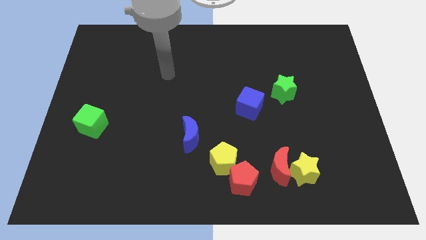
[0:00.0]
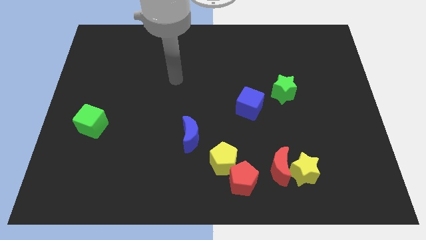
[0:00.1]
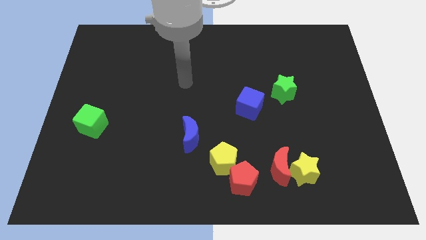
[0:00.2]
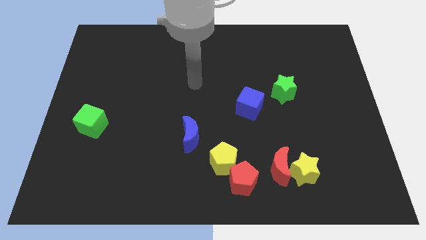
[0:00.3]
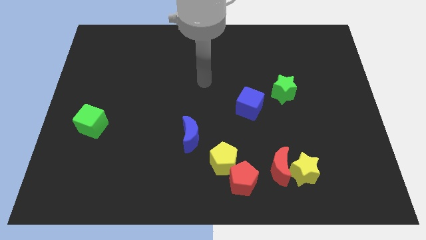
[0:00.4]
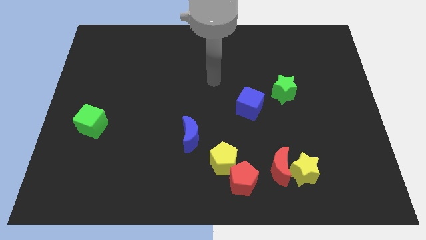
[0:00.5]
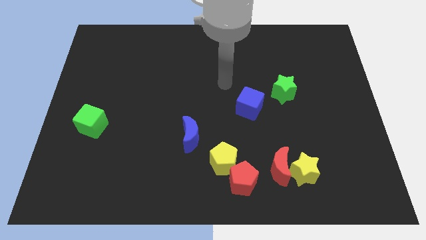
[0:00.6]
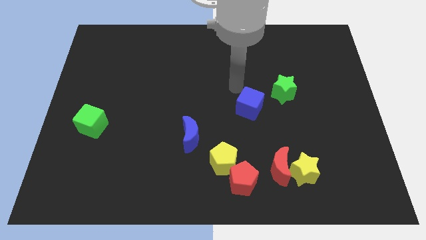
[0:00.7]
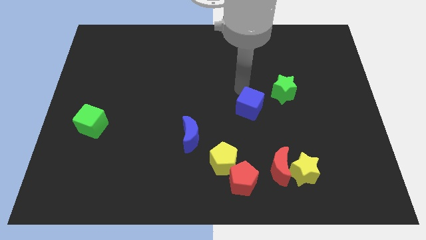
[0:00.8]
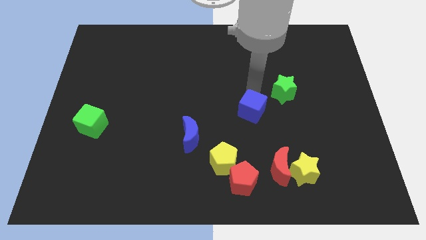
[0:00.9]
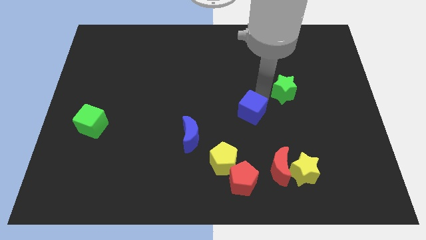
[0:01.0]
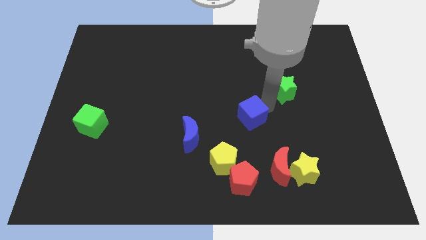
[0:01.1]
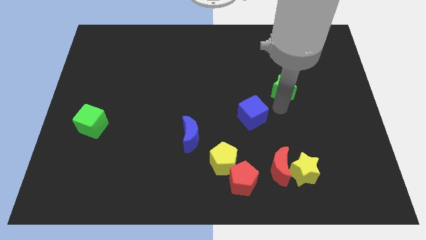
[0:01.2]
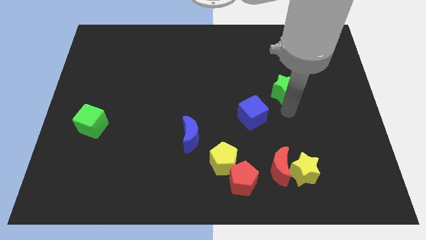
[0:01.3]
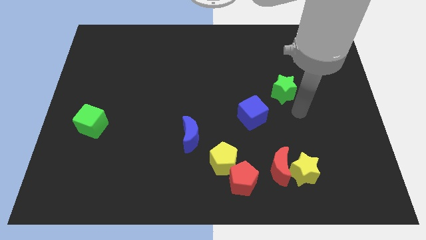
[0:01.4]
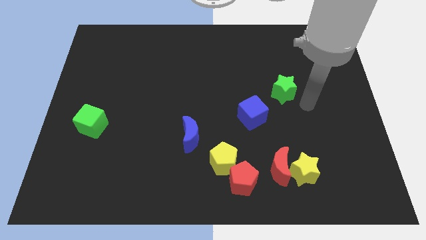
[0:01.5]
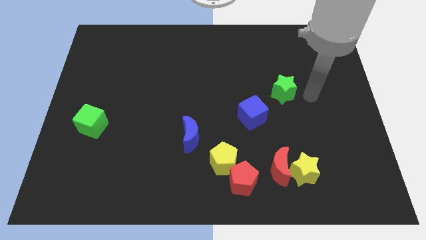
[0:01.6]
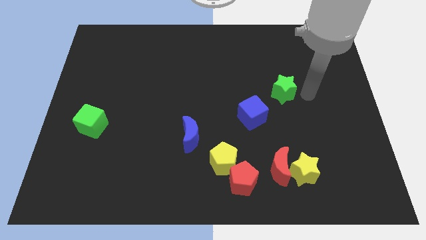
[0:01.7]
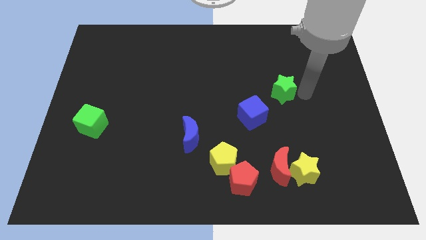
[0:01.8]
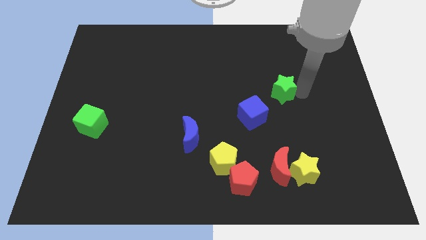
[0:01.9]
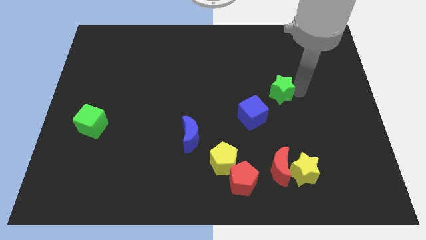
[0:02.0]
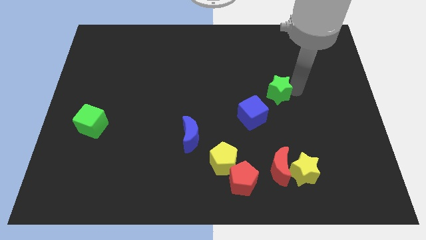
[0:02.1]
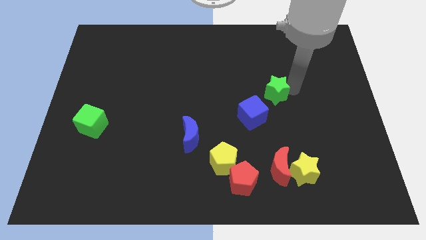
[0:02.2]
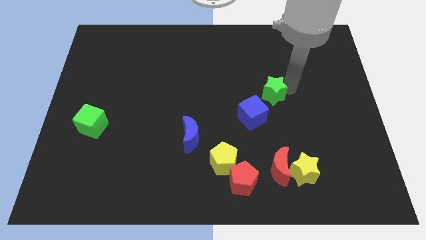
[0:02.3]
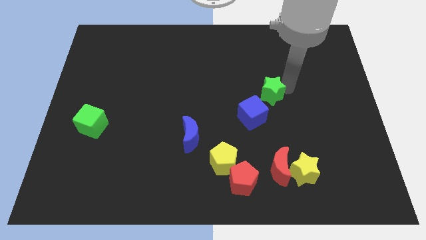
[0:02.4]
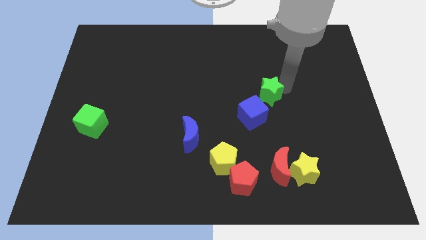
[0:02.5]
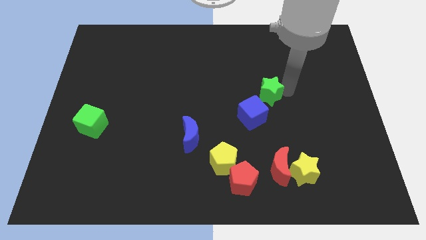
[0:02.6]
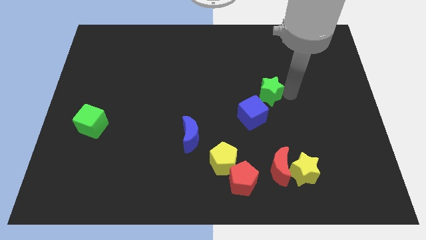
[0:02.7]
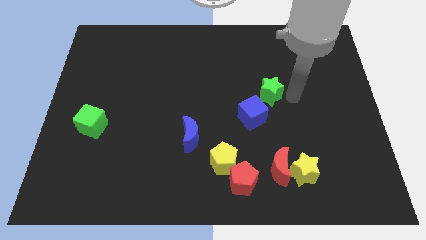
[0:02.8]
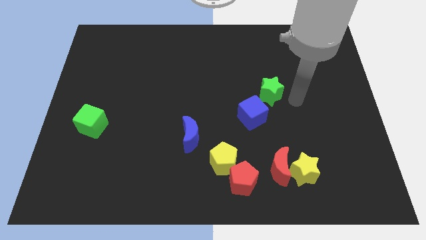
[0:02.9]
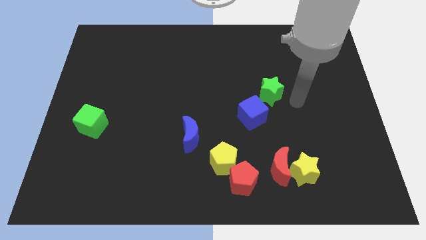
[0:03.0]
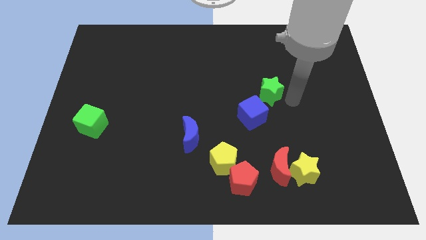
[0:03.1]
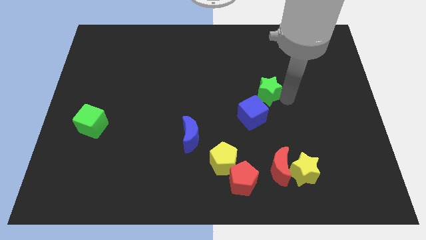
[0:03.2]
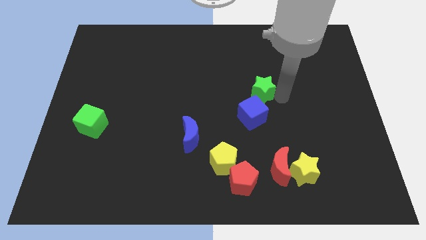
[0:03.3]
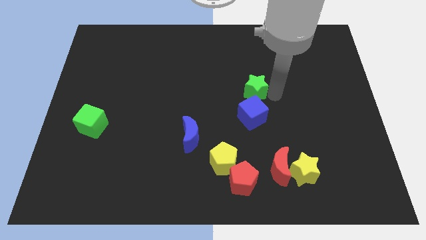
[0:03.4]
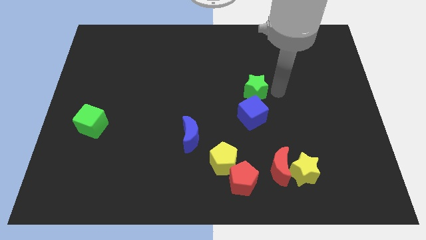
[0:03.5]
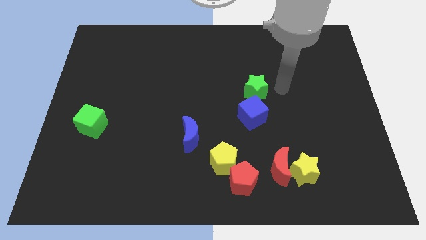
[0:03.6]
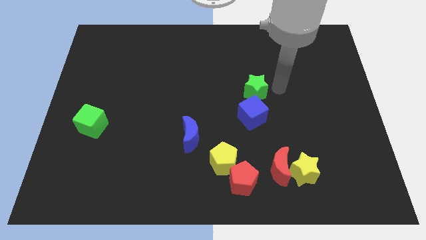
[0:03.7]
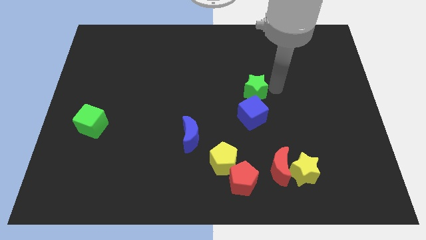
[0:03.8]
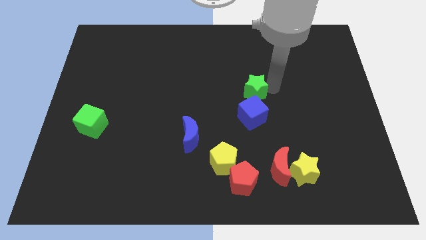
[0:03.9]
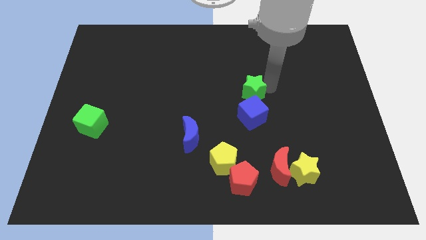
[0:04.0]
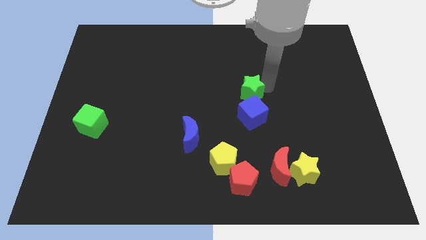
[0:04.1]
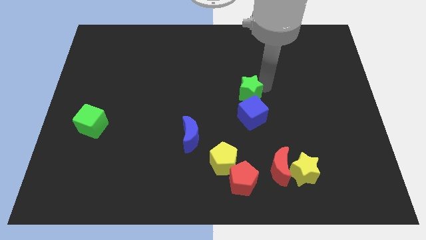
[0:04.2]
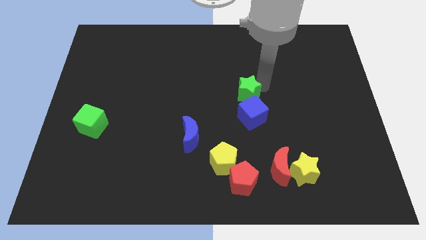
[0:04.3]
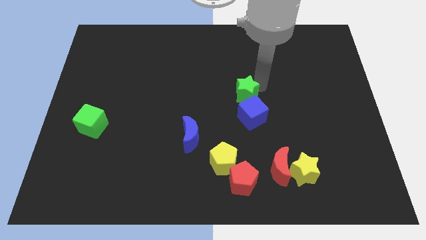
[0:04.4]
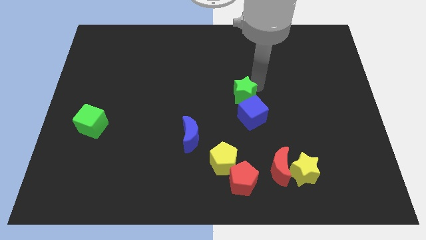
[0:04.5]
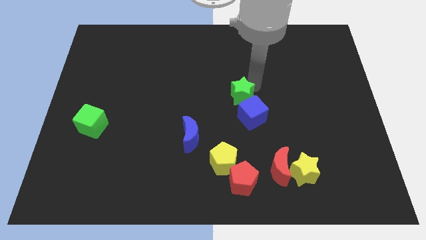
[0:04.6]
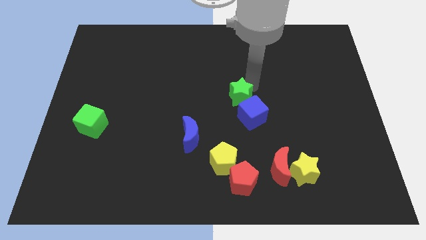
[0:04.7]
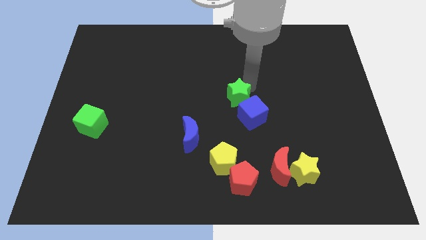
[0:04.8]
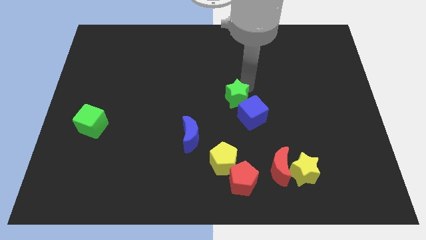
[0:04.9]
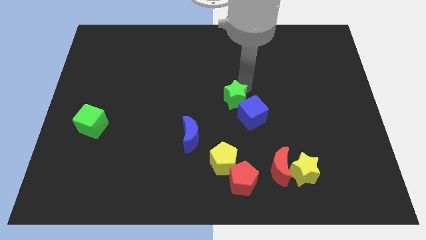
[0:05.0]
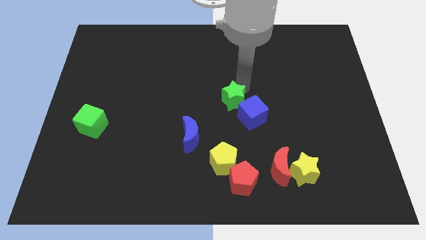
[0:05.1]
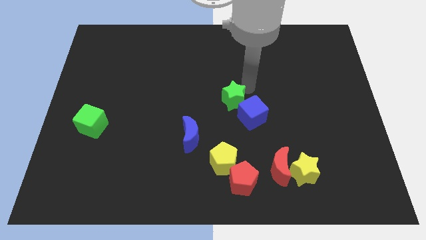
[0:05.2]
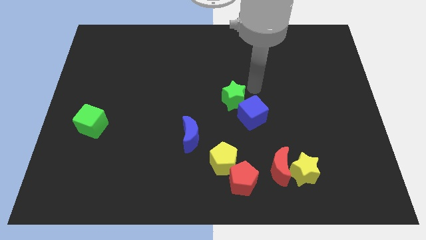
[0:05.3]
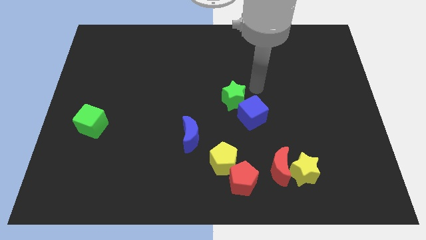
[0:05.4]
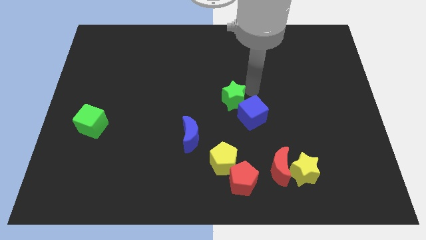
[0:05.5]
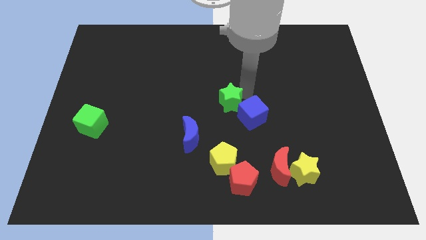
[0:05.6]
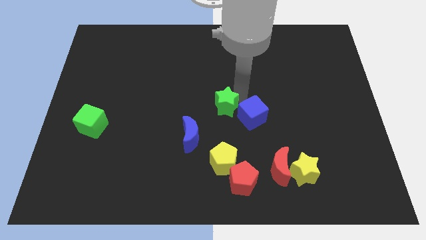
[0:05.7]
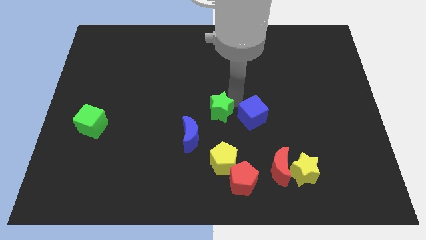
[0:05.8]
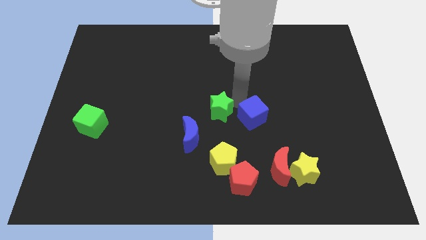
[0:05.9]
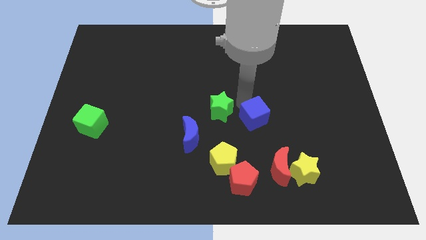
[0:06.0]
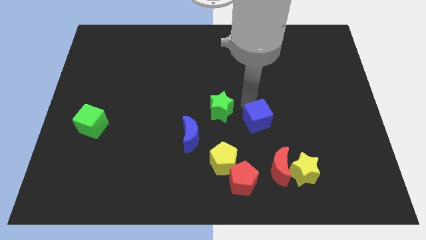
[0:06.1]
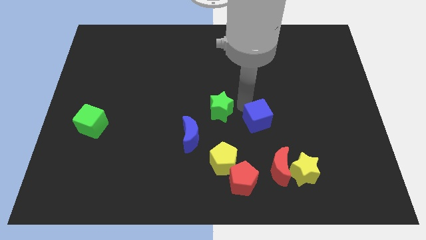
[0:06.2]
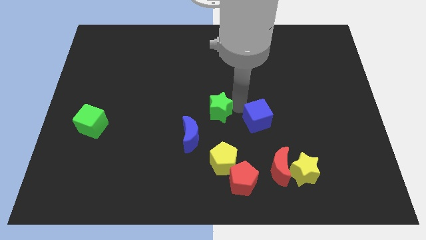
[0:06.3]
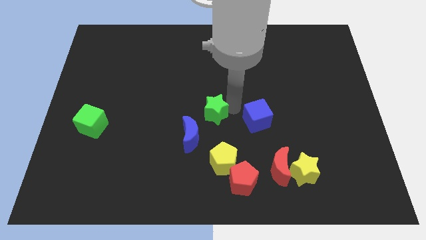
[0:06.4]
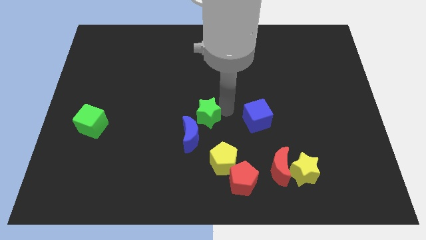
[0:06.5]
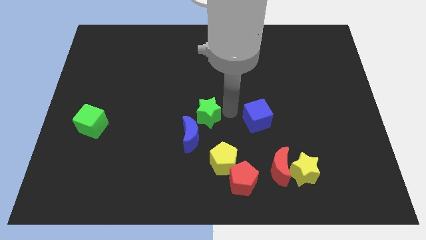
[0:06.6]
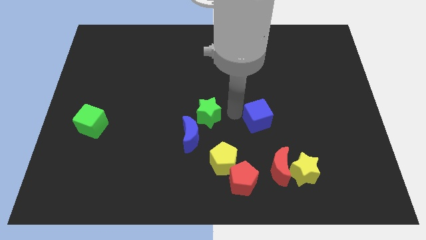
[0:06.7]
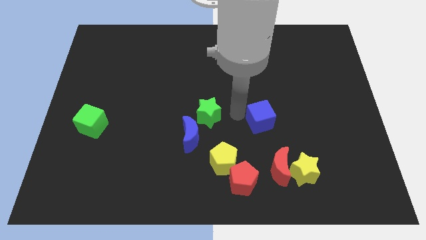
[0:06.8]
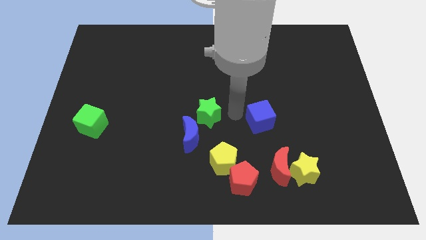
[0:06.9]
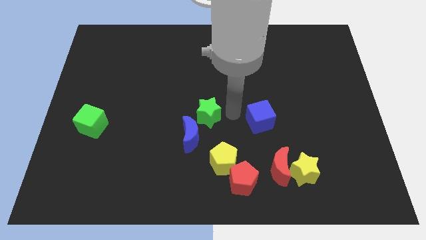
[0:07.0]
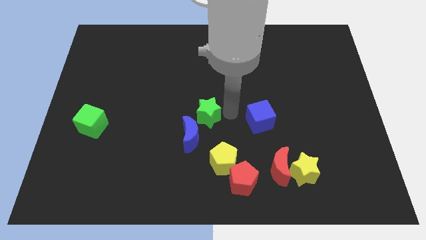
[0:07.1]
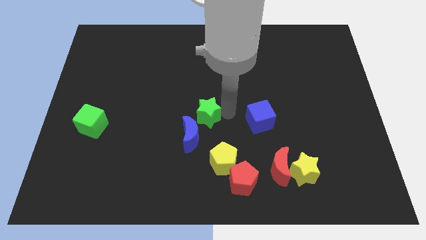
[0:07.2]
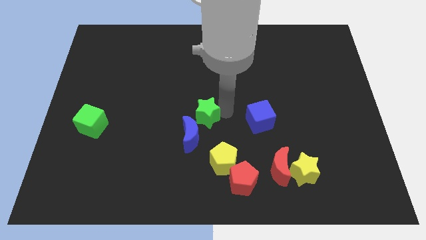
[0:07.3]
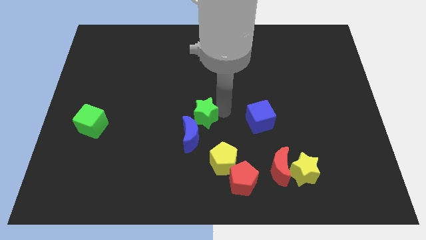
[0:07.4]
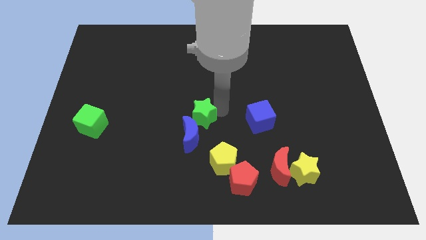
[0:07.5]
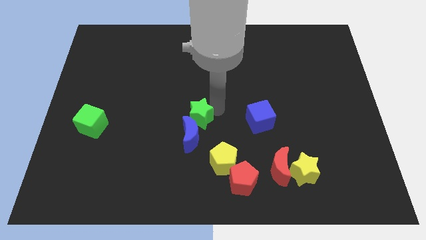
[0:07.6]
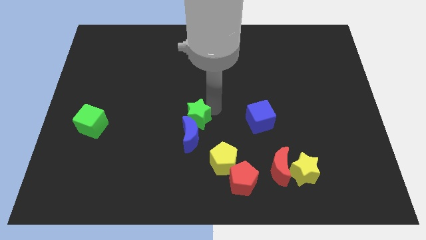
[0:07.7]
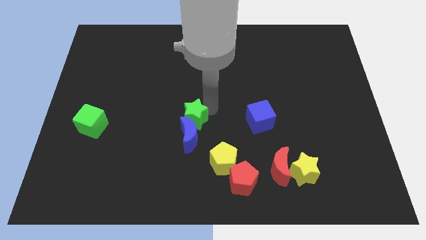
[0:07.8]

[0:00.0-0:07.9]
push the green star to the top left side of the blue moon
